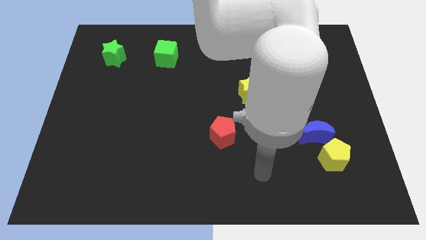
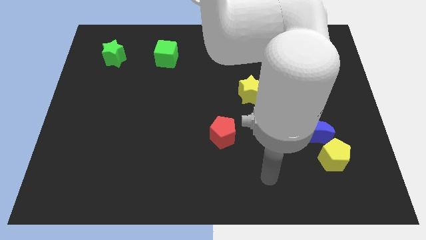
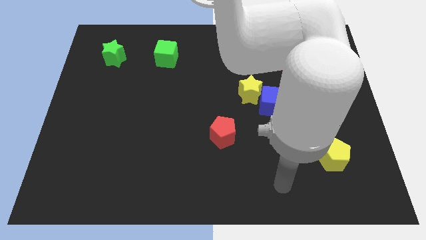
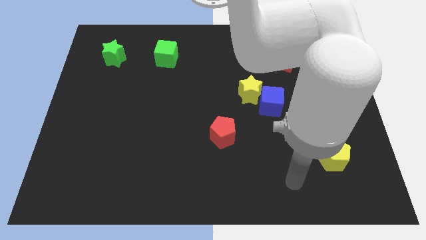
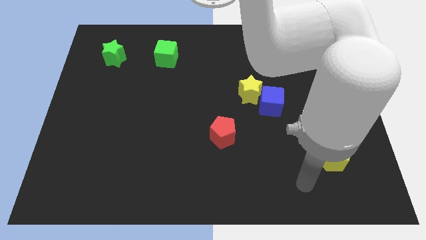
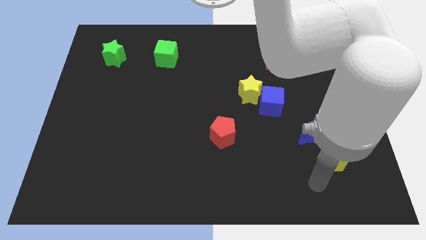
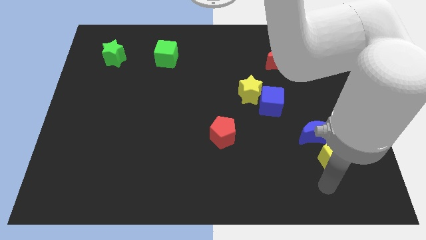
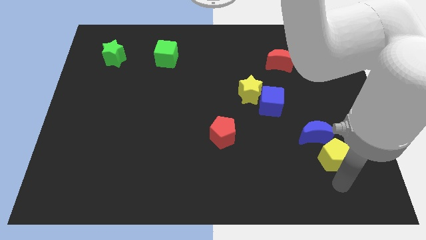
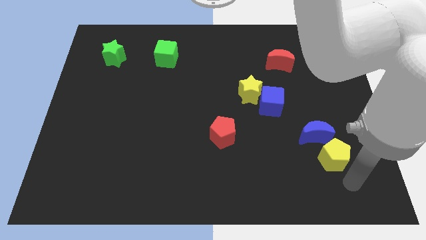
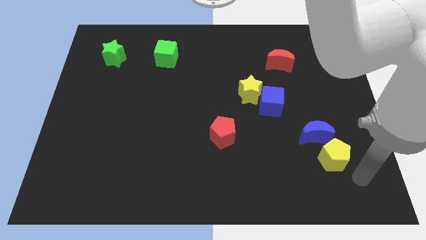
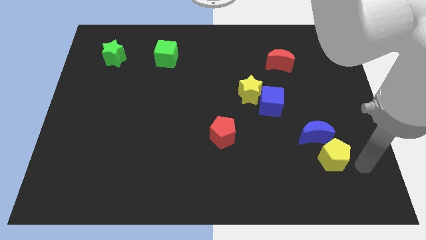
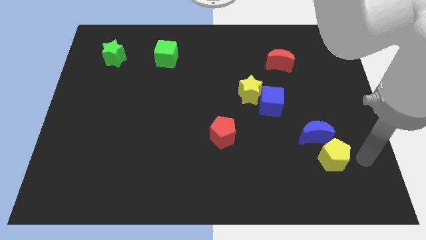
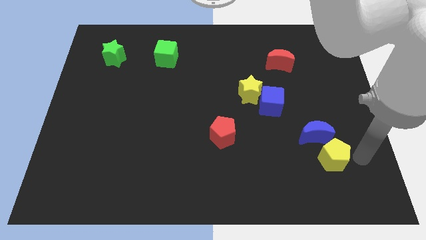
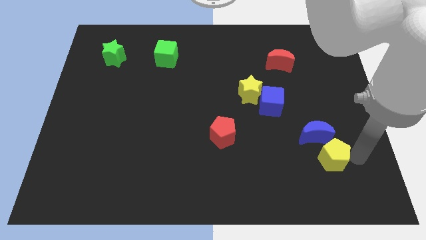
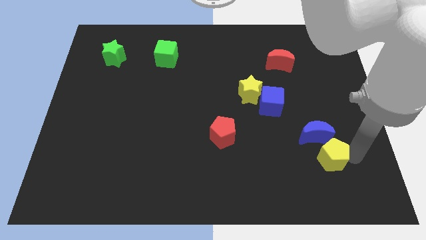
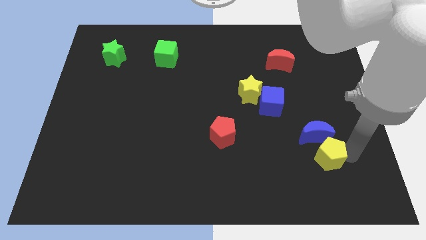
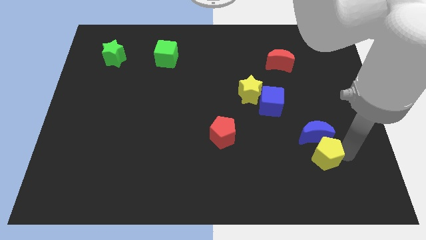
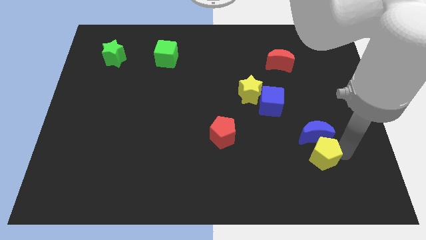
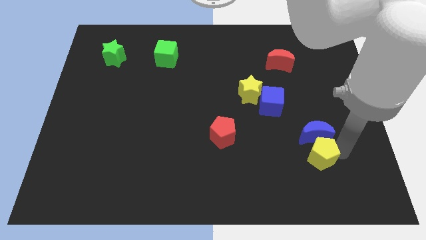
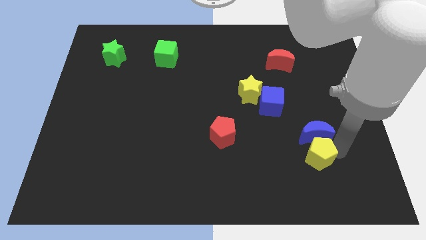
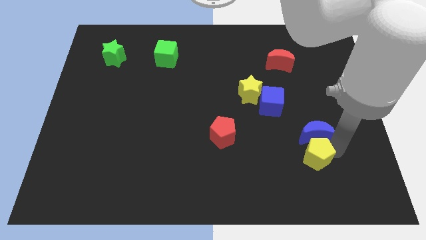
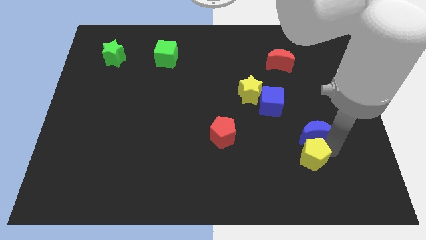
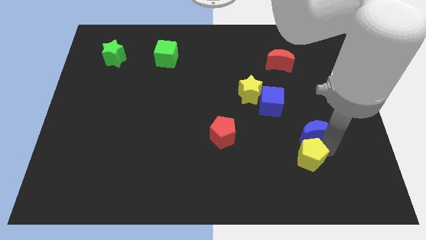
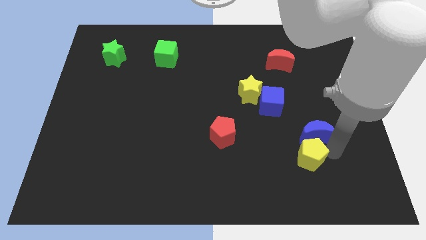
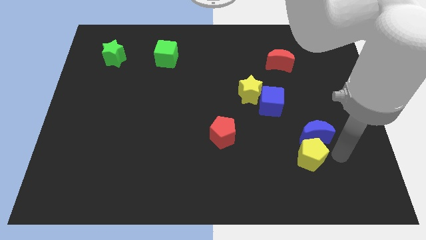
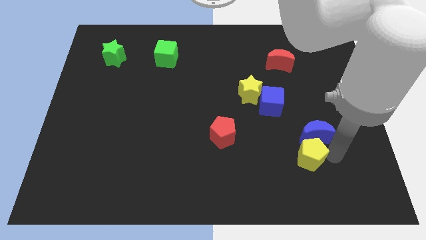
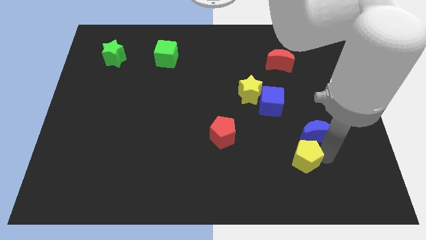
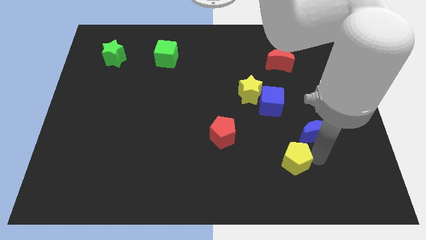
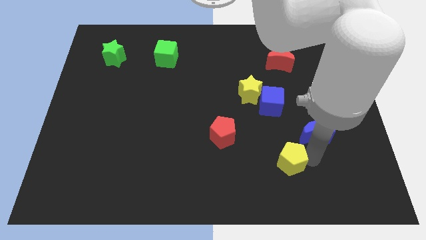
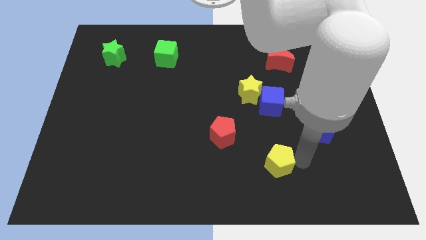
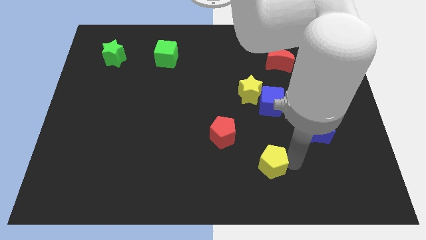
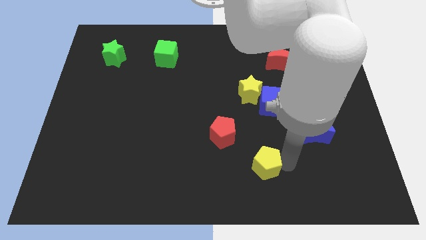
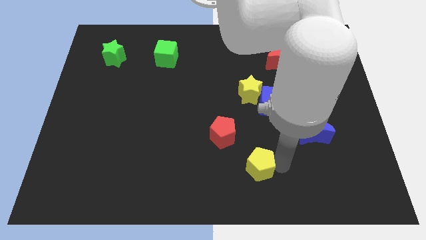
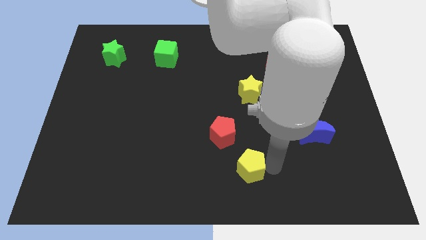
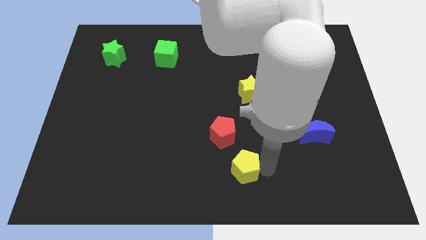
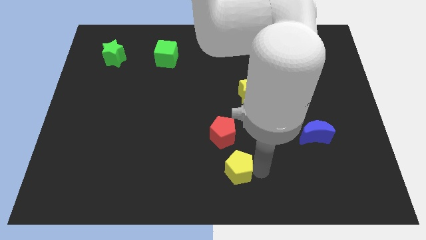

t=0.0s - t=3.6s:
move the yellow pentagon to the left

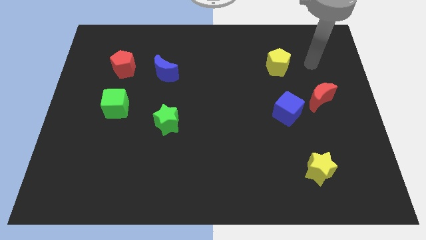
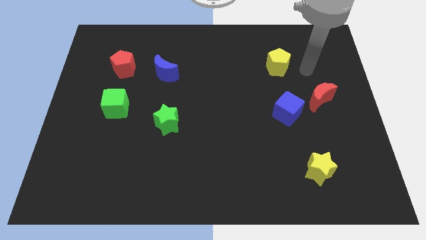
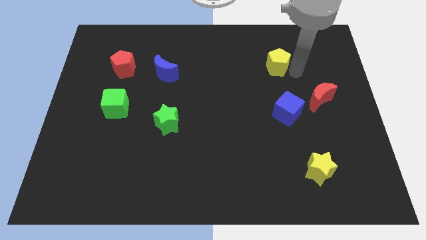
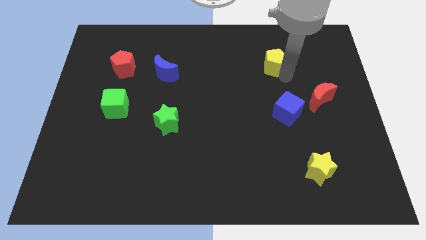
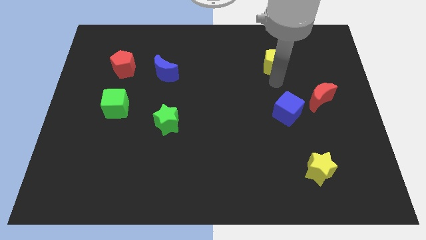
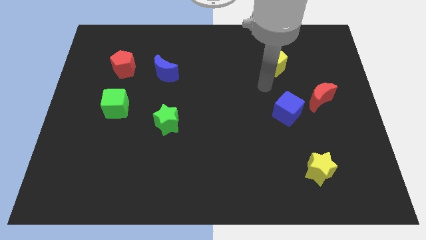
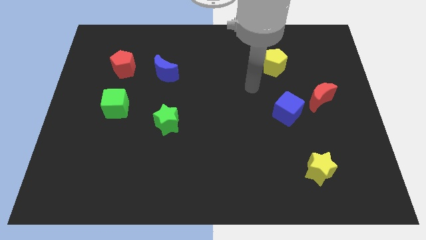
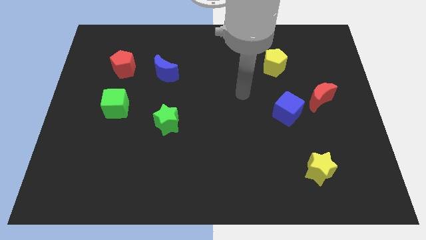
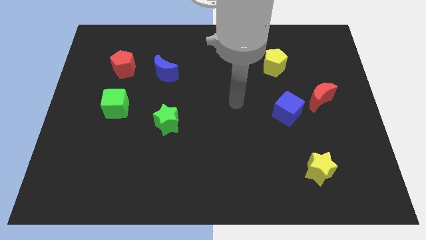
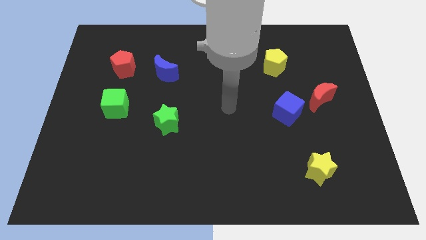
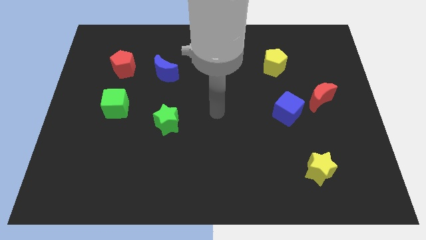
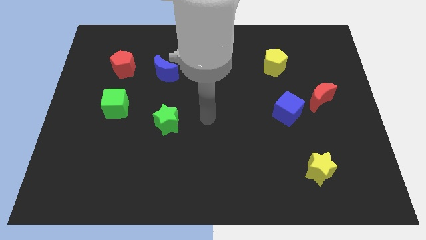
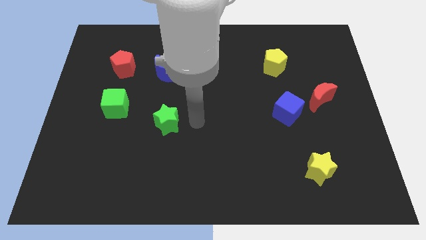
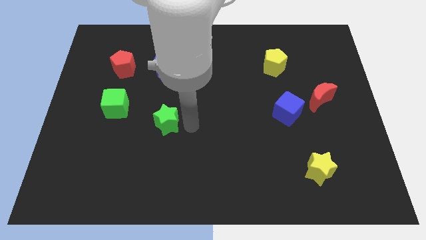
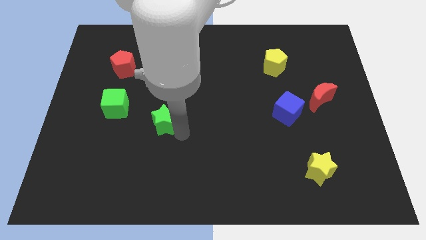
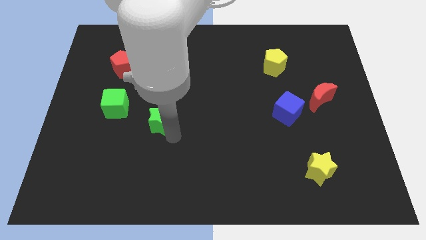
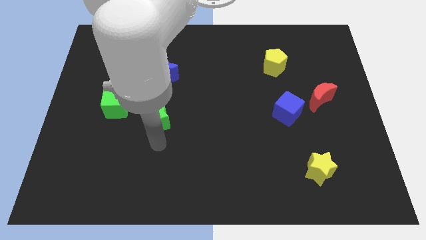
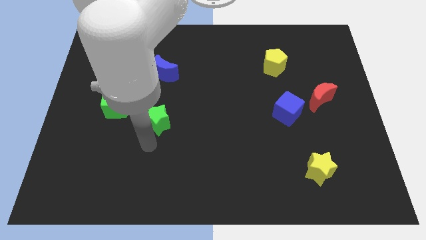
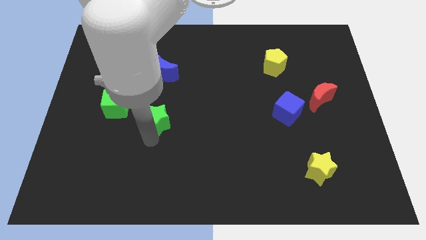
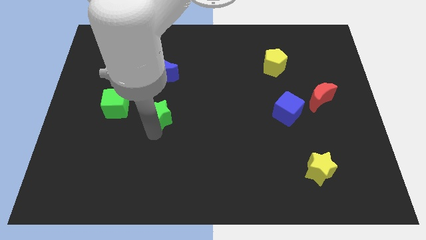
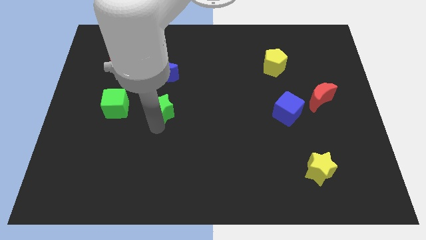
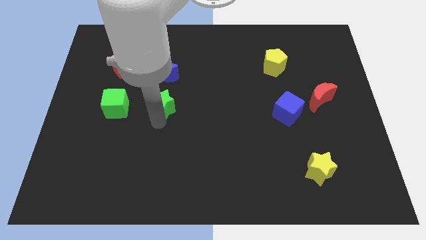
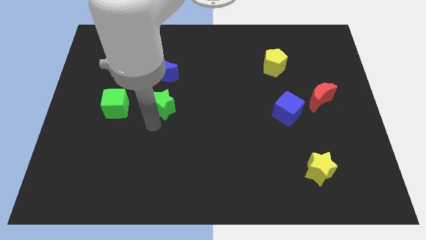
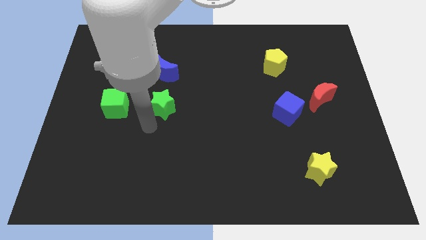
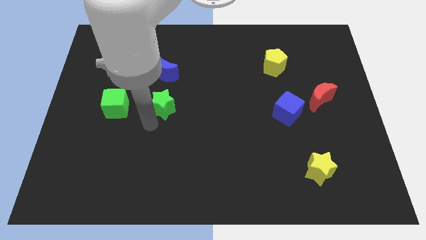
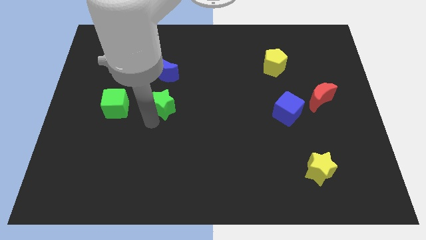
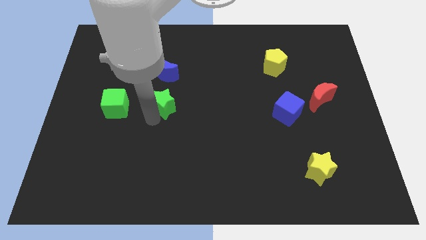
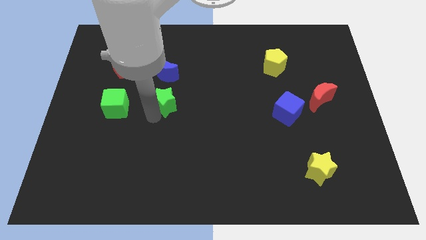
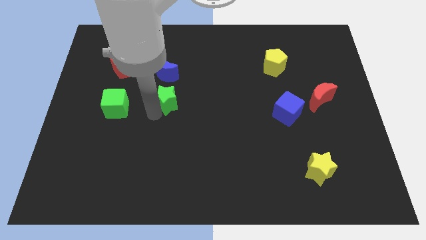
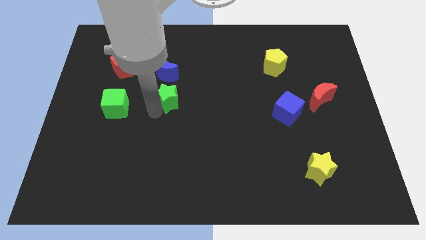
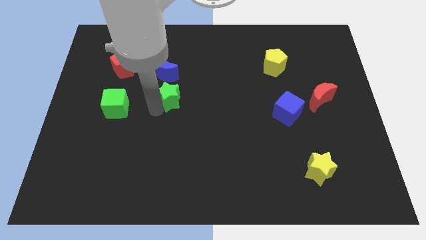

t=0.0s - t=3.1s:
push the green star upwards a little

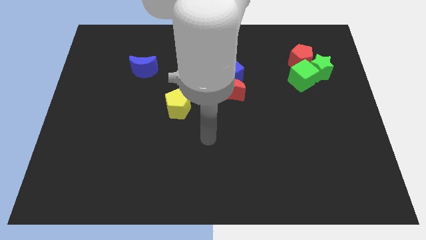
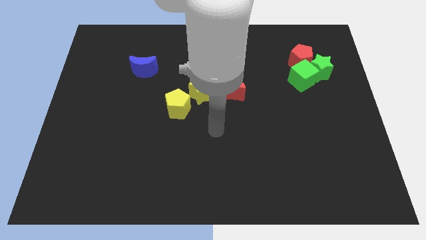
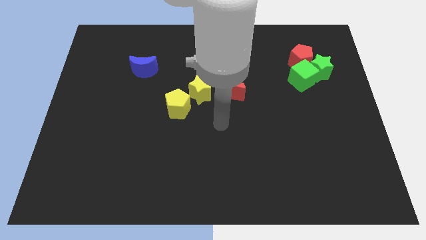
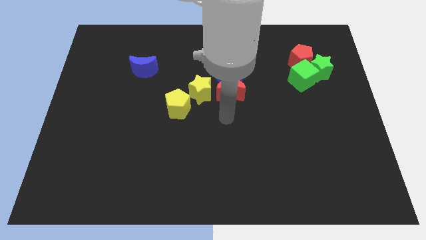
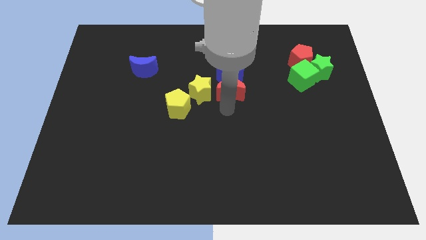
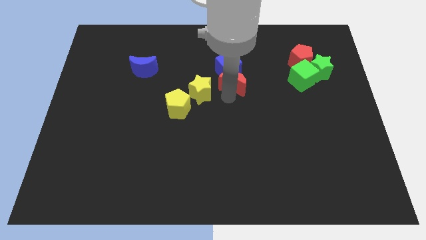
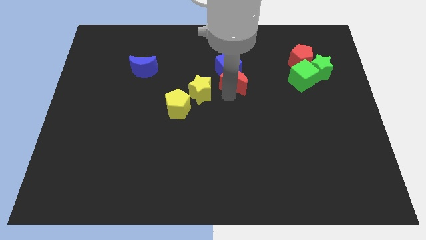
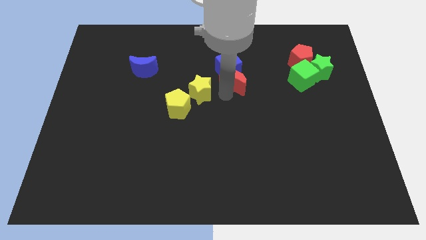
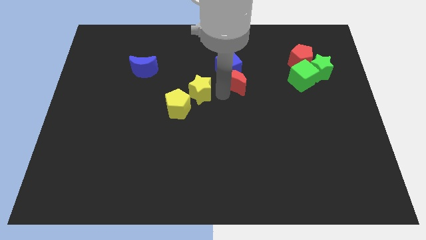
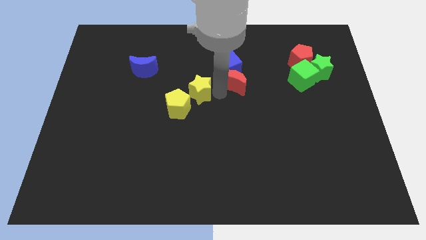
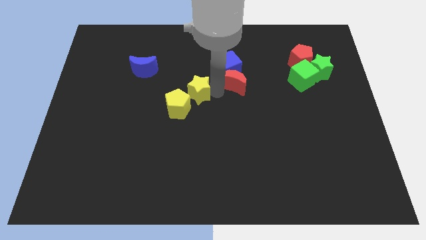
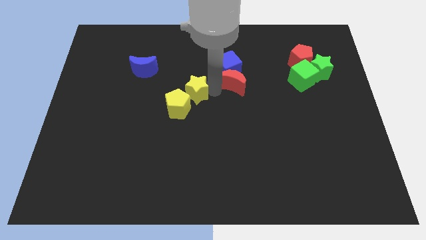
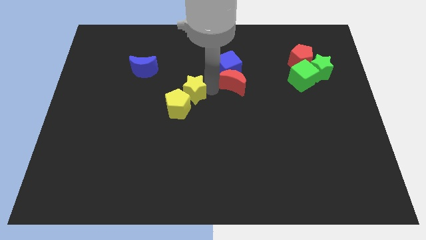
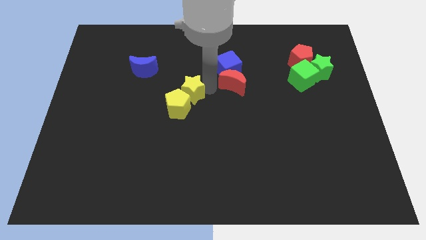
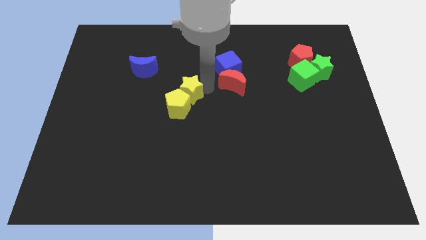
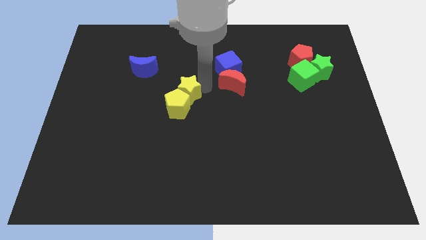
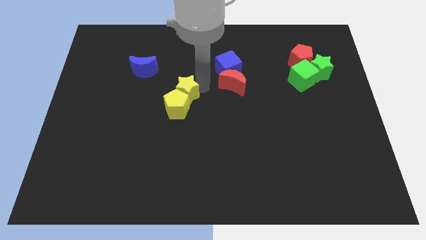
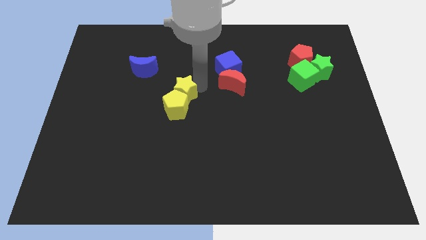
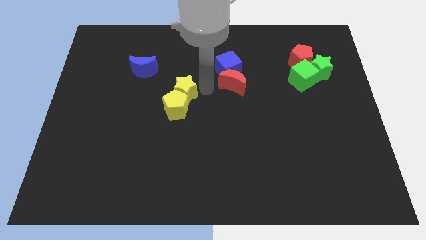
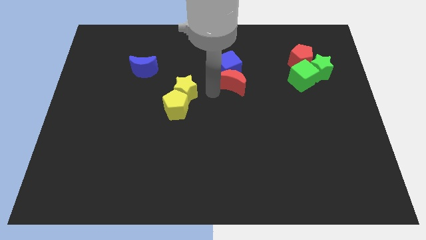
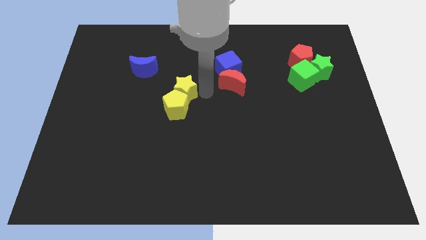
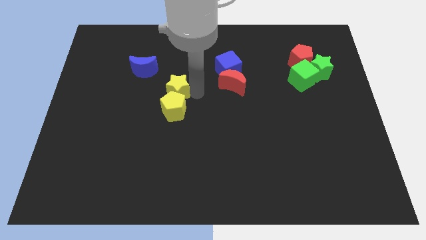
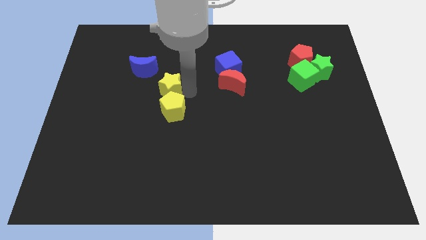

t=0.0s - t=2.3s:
slightly push the yellow star to the left
